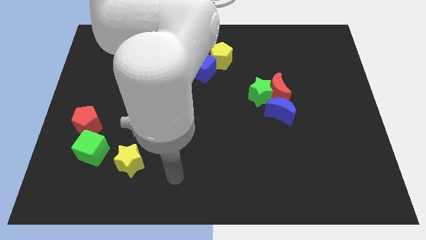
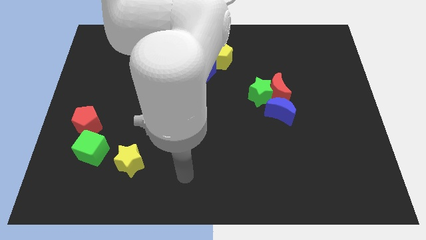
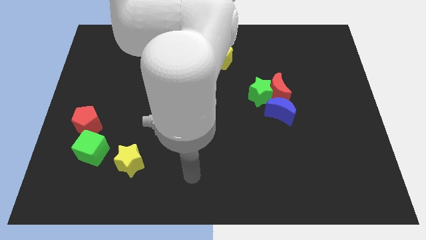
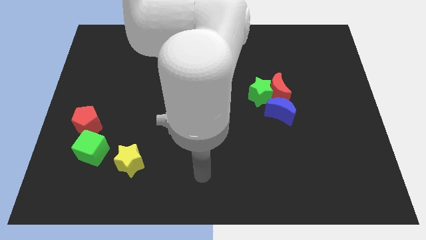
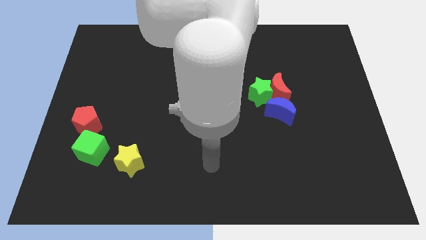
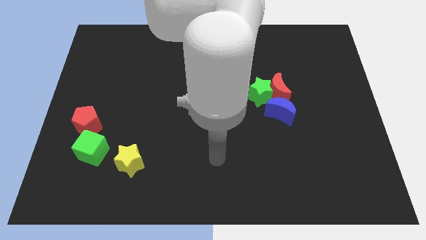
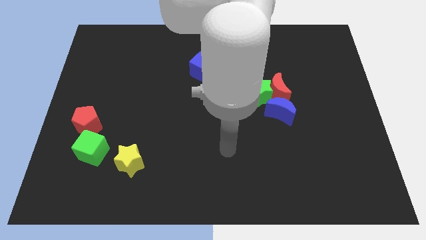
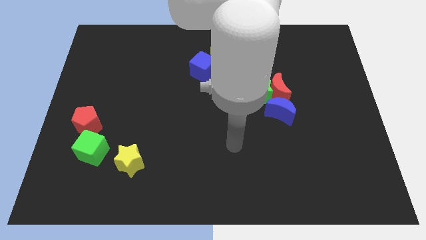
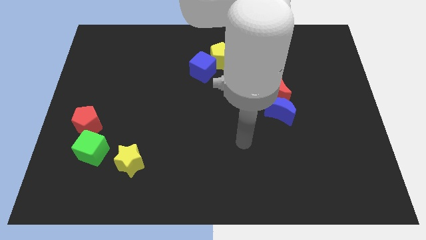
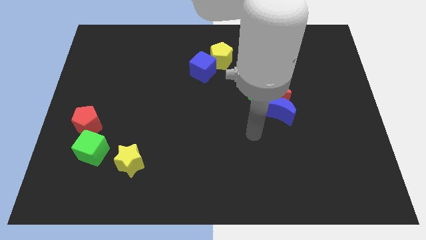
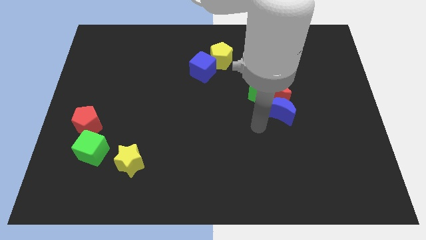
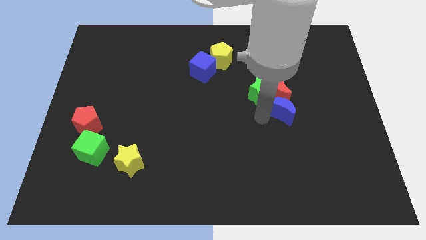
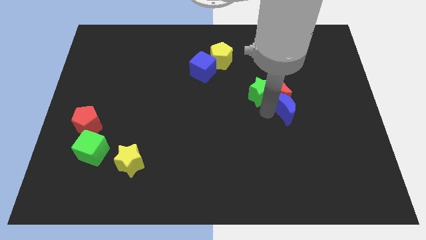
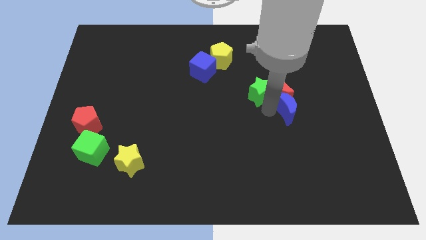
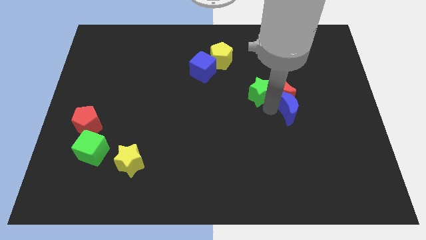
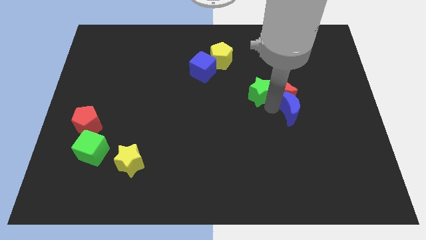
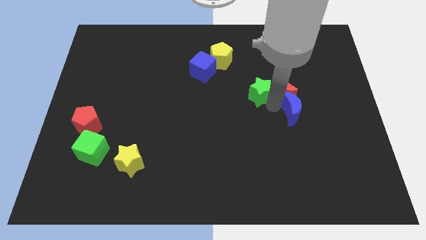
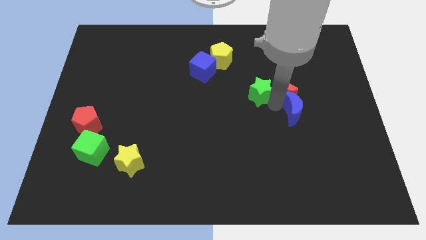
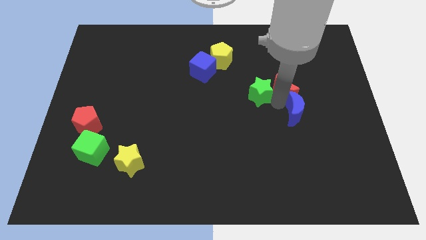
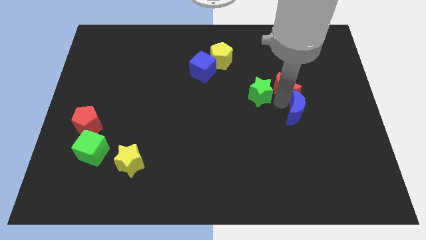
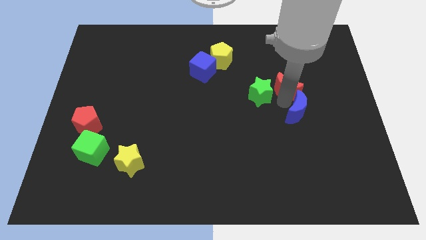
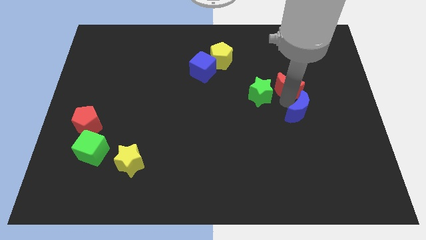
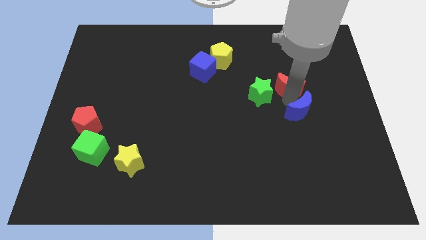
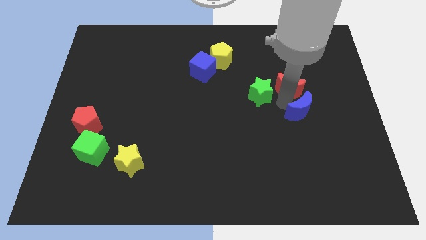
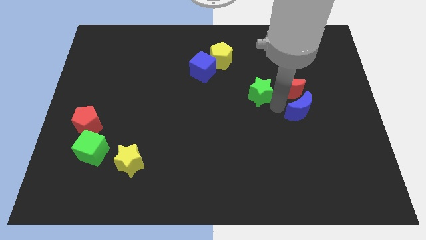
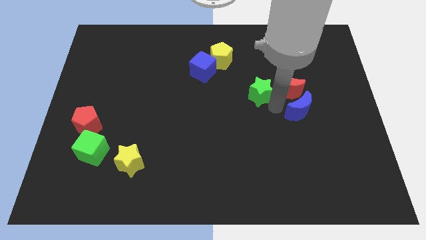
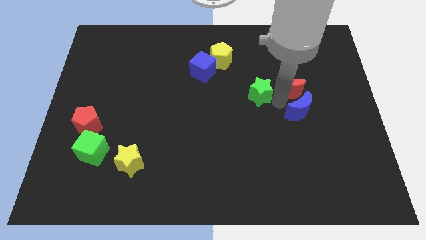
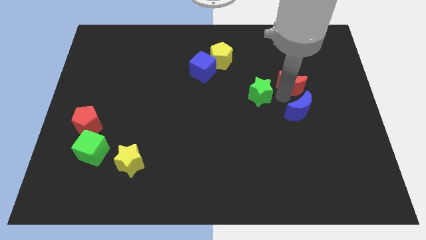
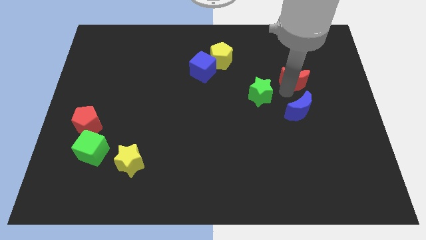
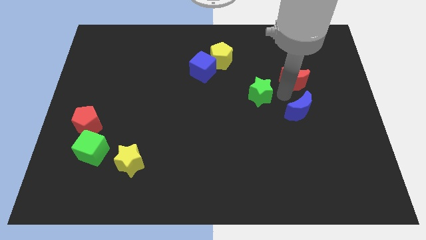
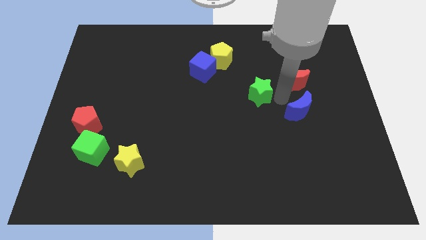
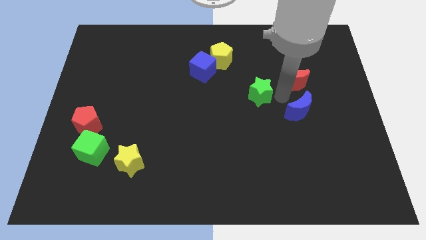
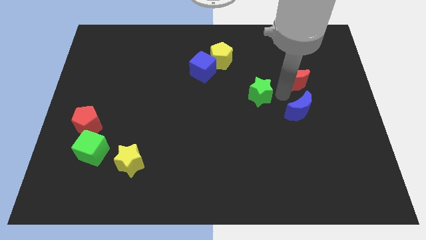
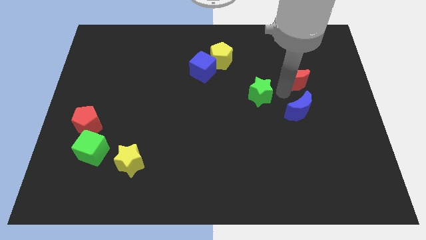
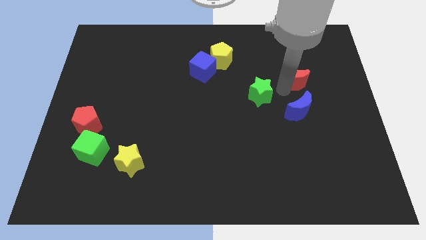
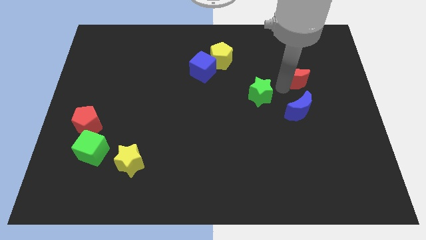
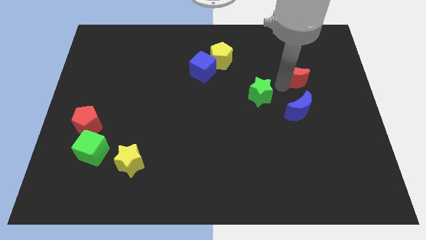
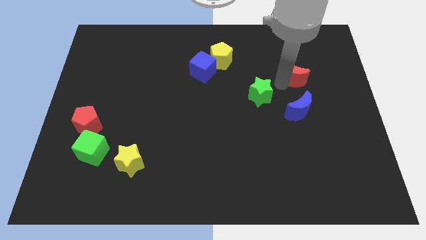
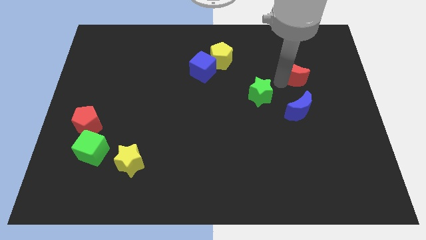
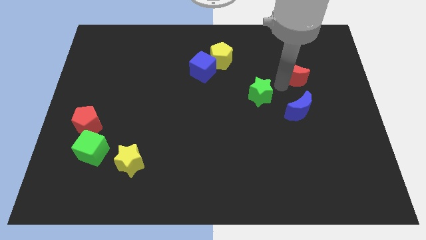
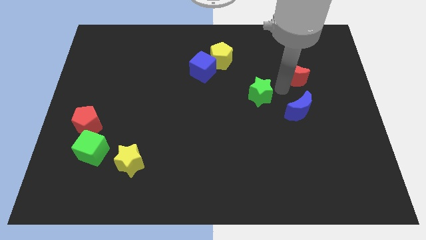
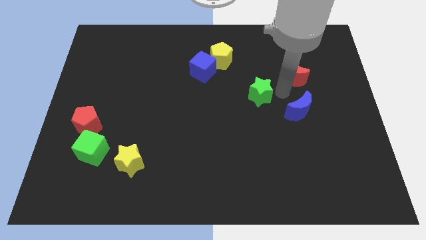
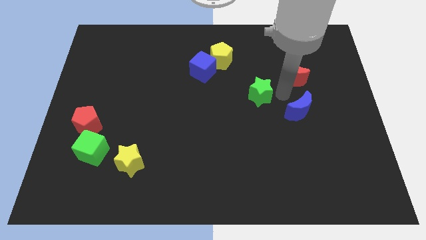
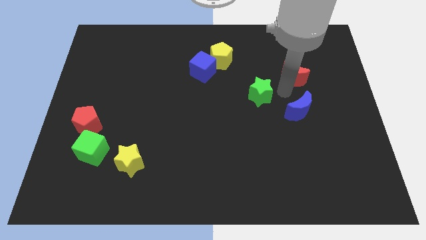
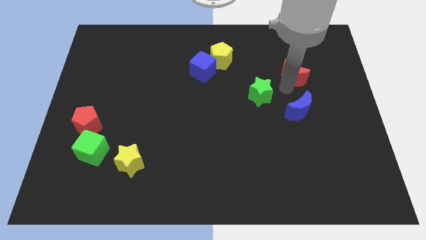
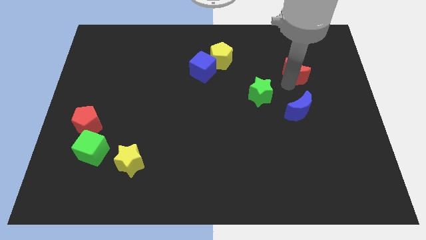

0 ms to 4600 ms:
move the red moon away from the green star and blue moon

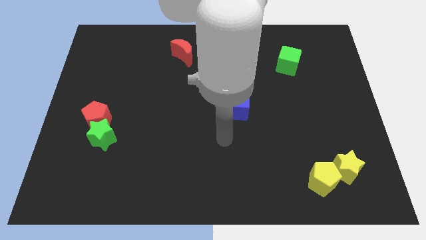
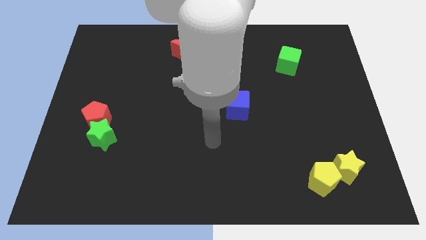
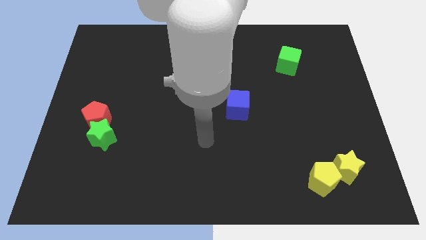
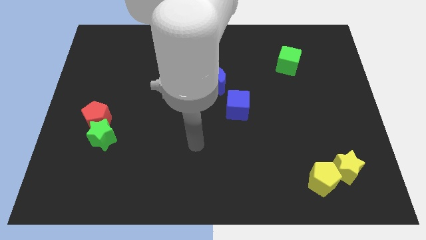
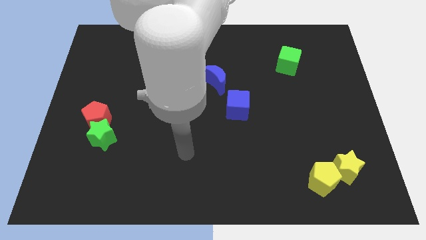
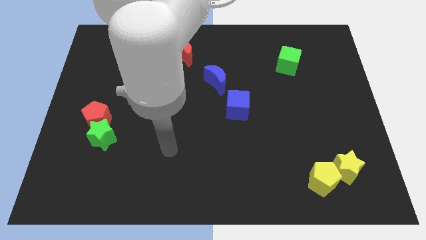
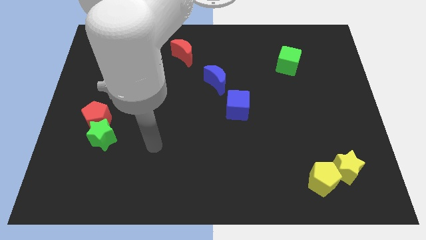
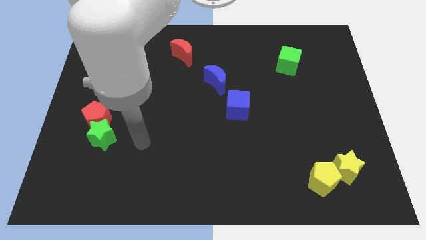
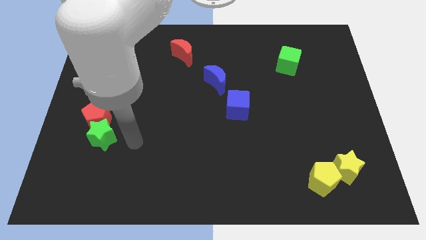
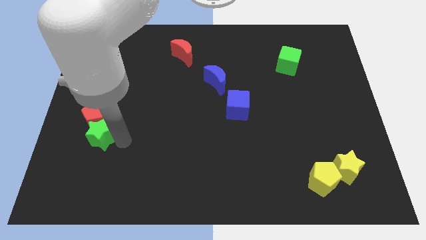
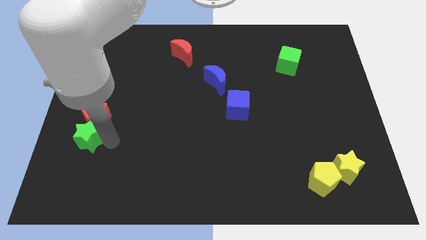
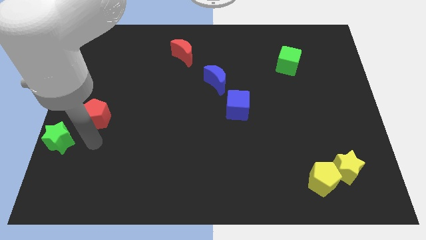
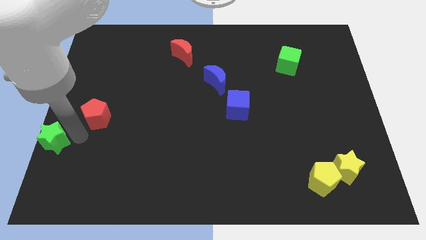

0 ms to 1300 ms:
separate the red pentagon from the green star

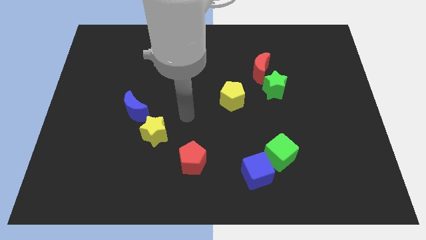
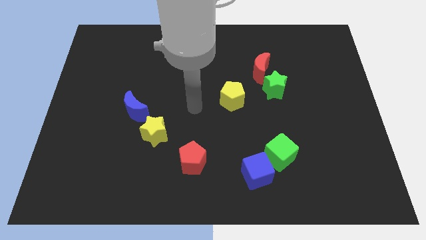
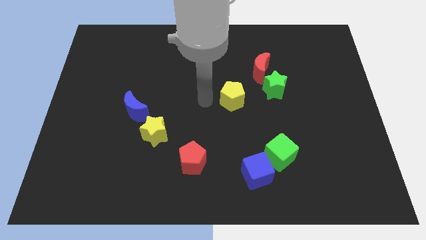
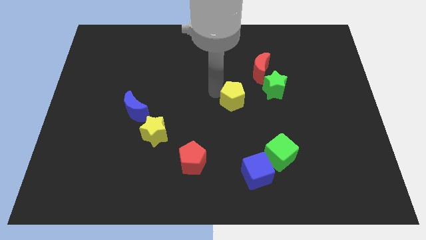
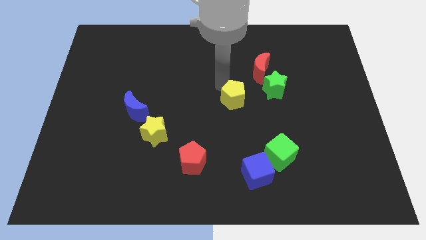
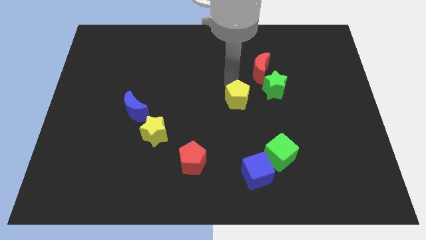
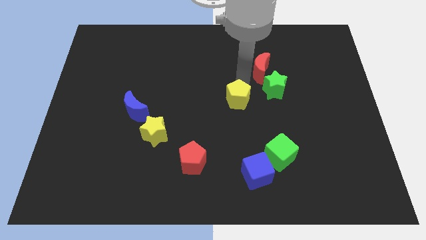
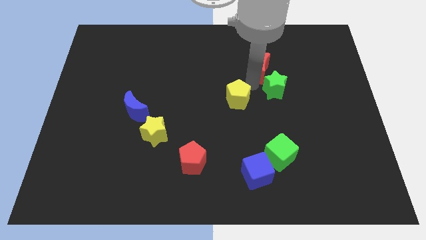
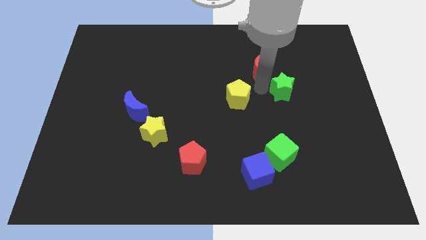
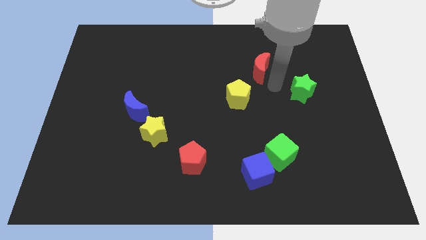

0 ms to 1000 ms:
separate the red moon from the green star

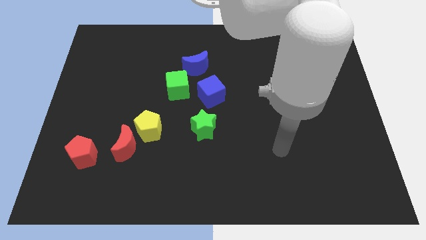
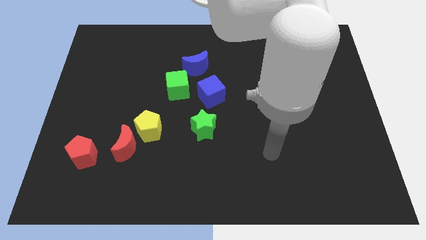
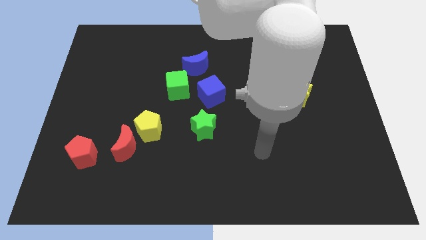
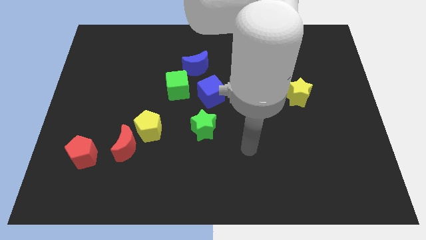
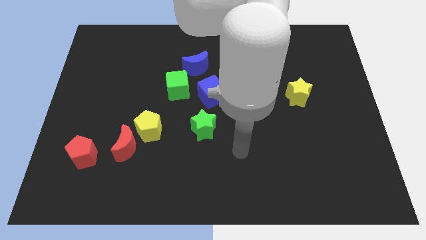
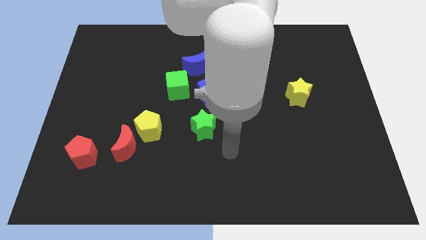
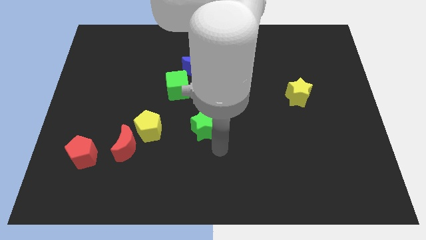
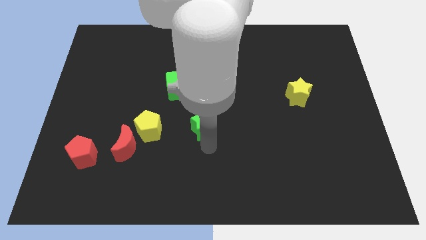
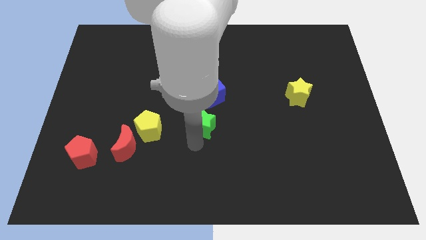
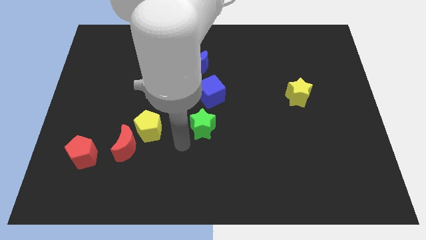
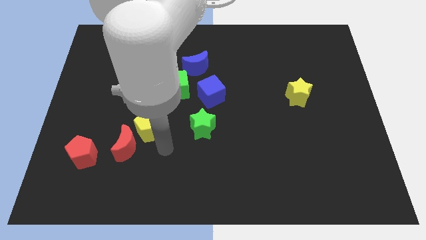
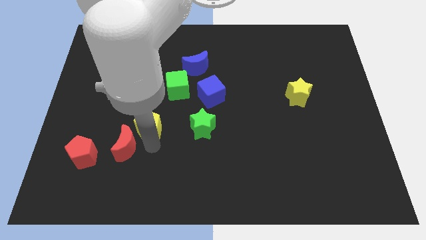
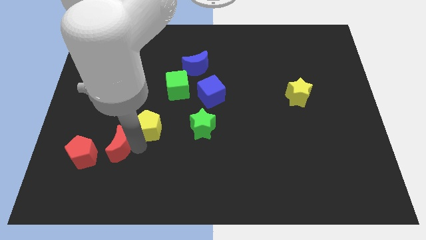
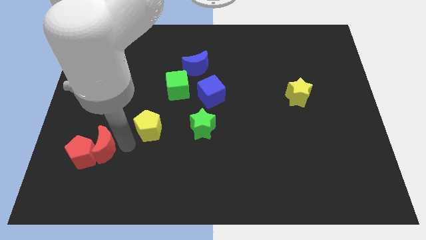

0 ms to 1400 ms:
separate the yellow pentagon from the red moon

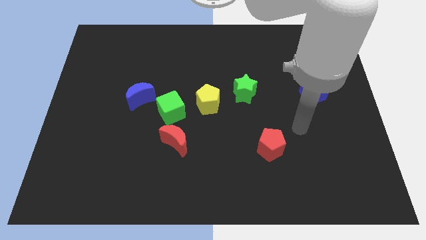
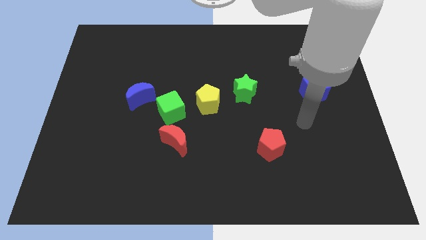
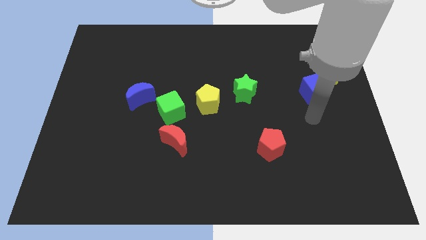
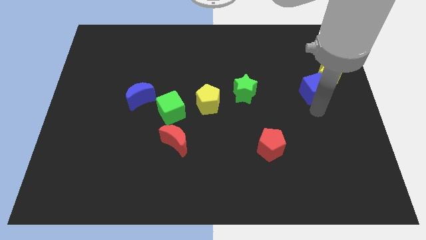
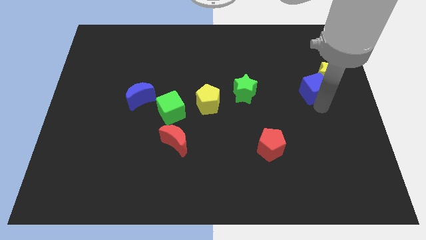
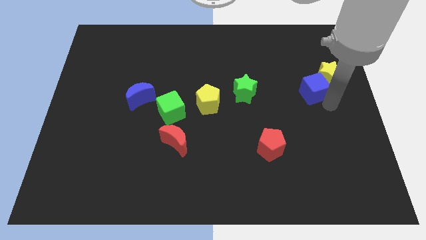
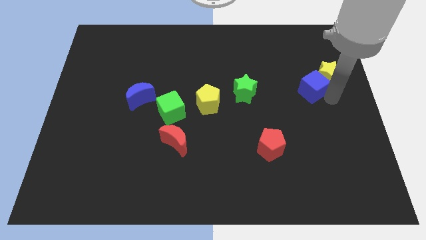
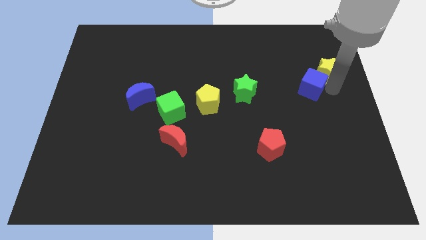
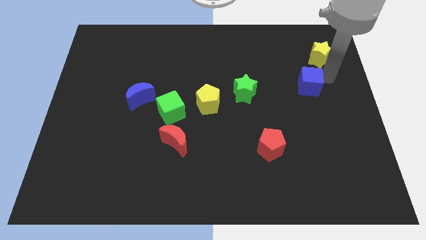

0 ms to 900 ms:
move the blue cube away from the yellow star

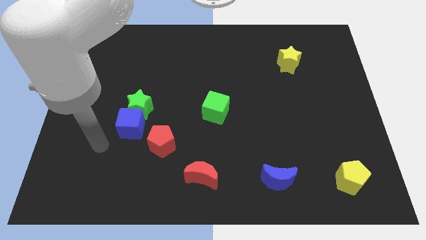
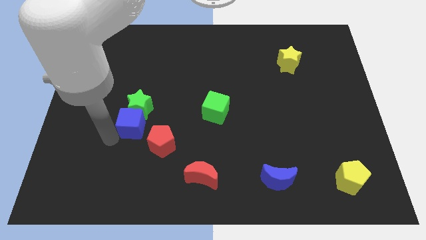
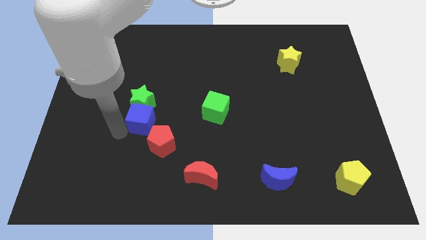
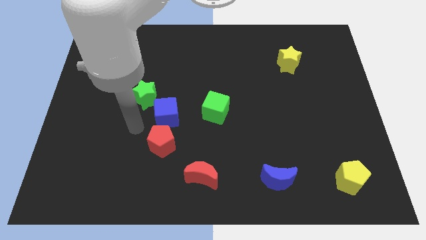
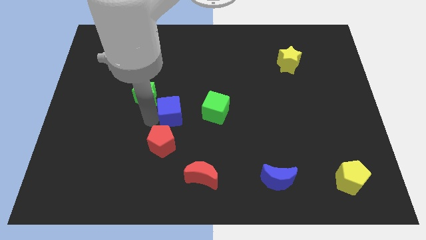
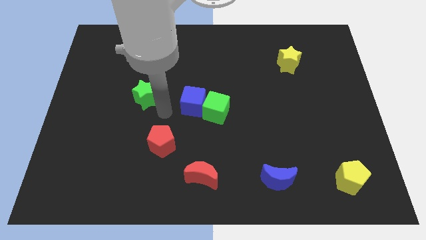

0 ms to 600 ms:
move the green star away from the blue cube
